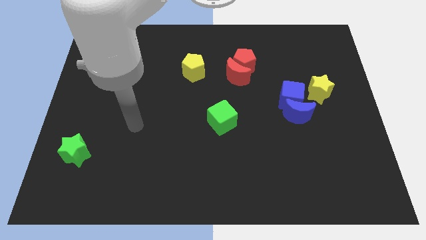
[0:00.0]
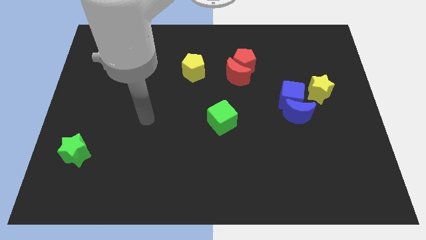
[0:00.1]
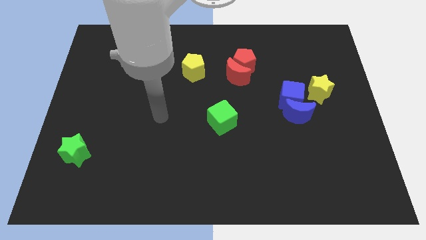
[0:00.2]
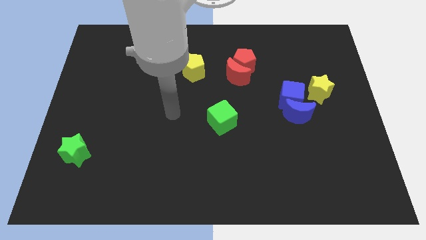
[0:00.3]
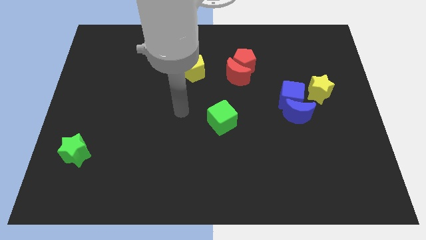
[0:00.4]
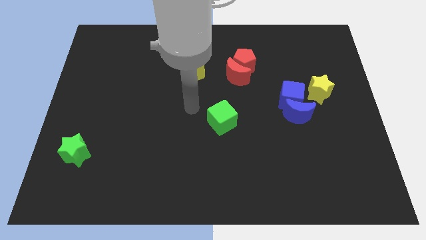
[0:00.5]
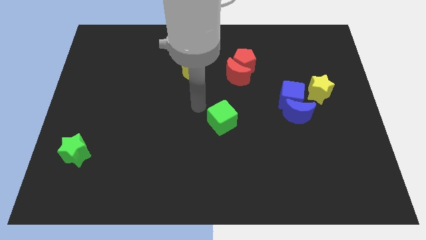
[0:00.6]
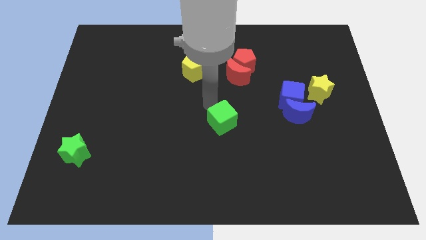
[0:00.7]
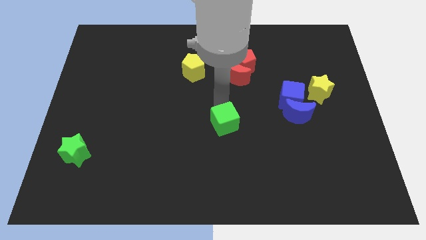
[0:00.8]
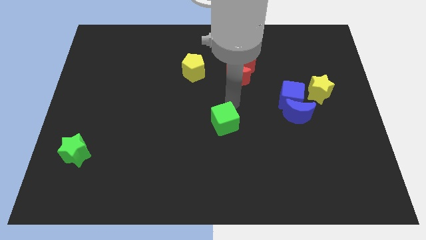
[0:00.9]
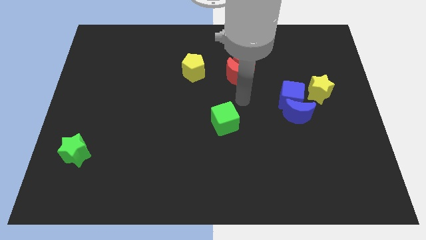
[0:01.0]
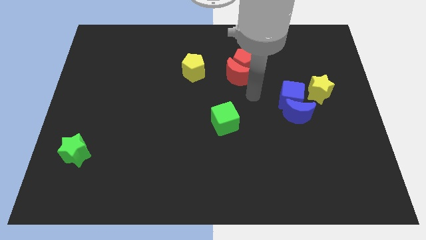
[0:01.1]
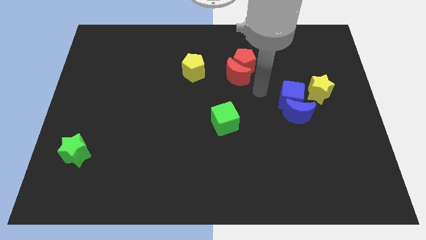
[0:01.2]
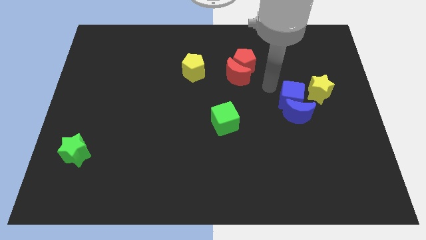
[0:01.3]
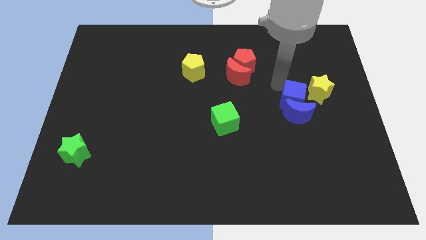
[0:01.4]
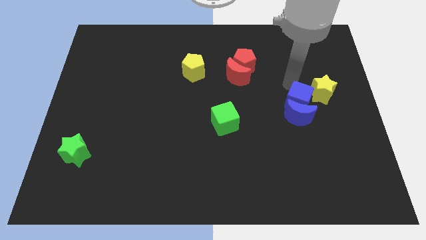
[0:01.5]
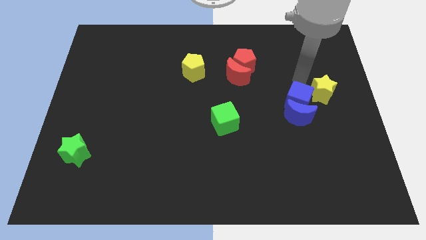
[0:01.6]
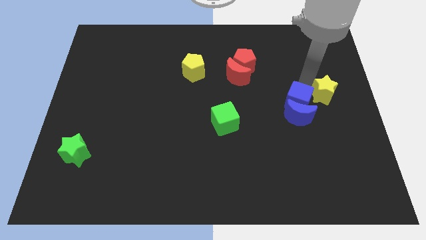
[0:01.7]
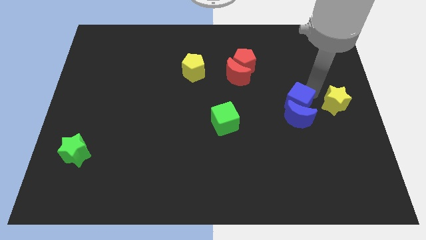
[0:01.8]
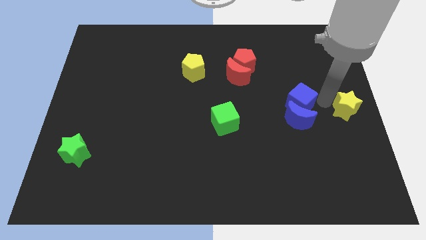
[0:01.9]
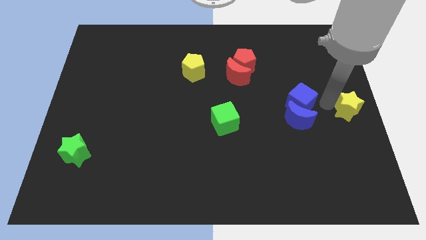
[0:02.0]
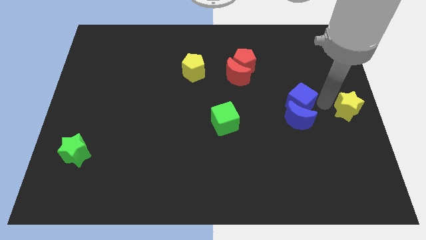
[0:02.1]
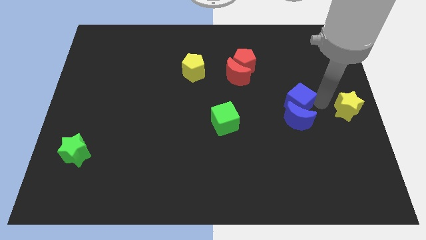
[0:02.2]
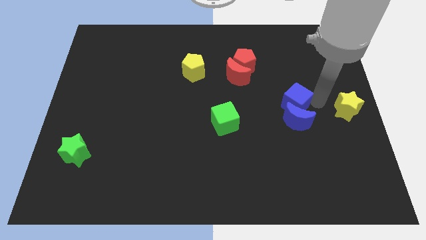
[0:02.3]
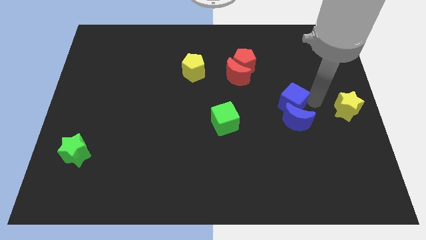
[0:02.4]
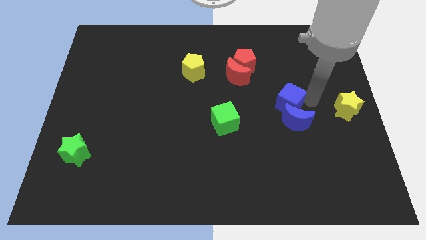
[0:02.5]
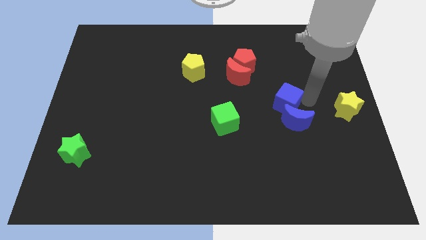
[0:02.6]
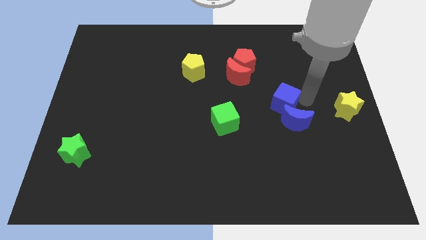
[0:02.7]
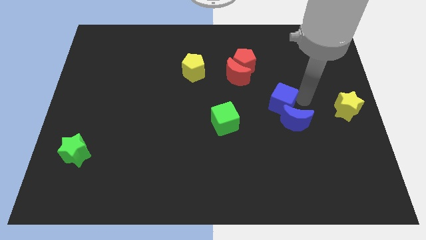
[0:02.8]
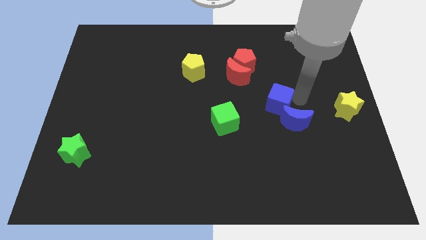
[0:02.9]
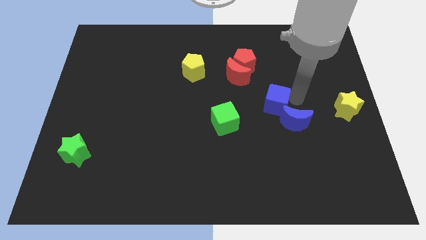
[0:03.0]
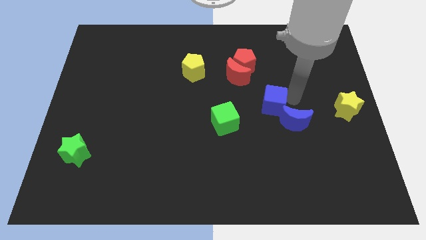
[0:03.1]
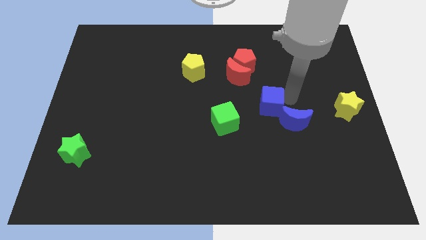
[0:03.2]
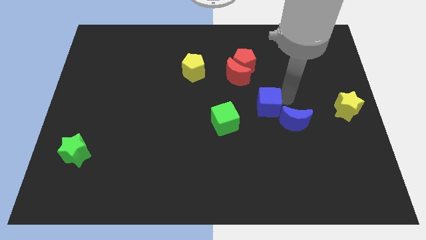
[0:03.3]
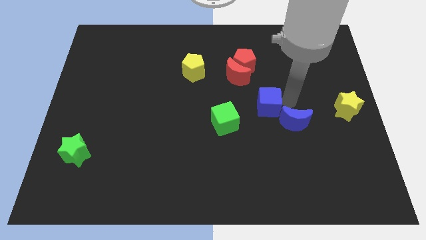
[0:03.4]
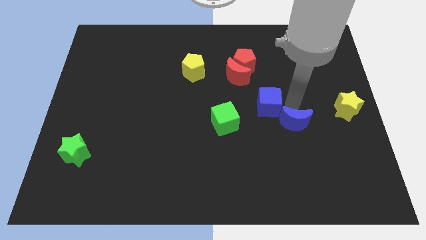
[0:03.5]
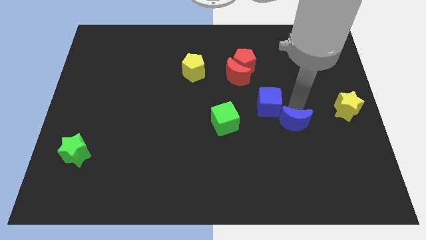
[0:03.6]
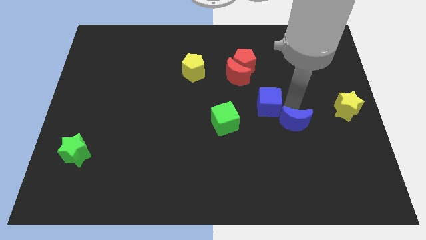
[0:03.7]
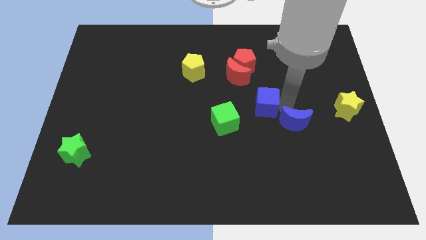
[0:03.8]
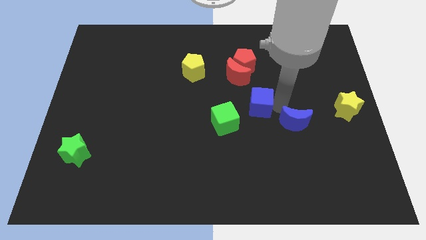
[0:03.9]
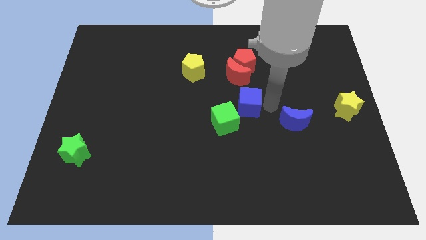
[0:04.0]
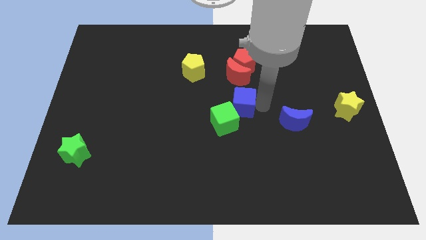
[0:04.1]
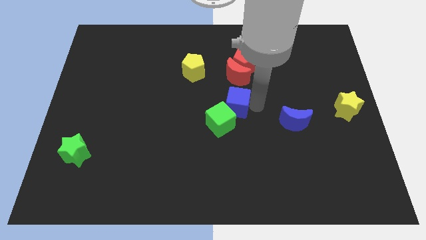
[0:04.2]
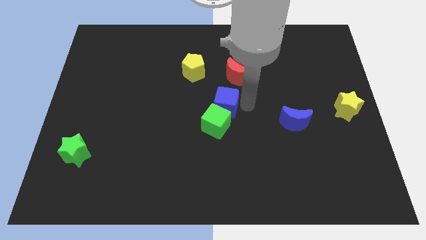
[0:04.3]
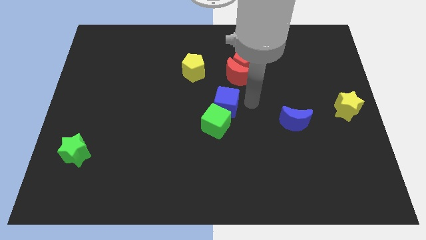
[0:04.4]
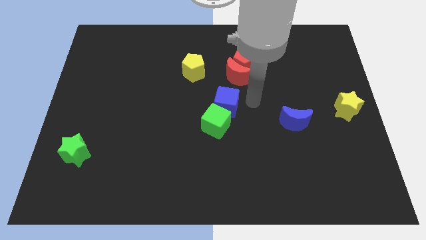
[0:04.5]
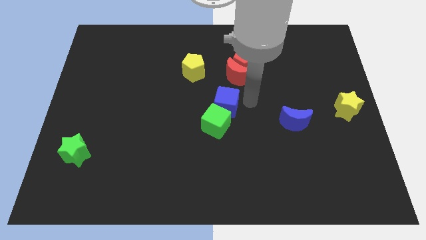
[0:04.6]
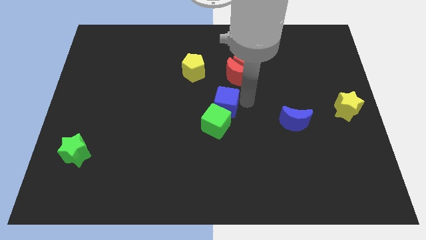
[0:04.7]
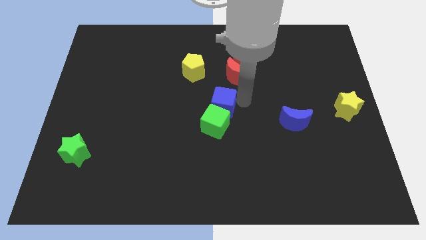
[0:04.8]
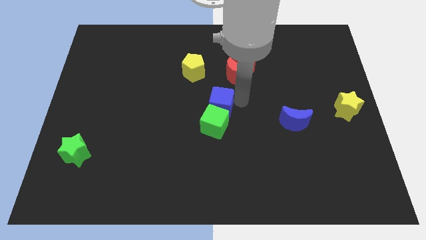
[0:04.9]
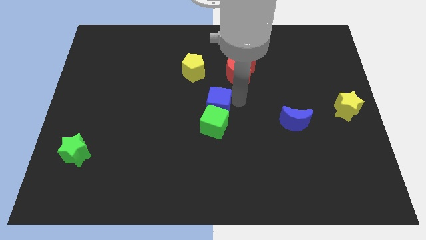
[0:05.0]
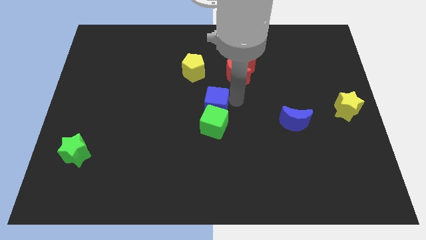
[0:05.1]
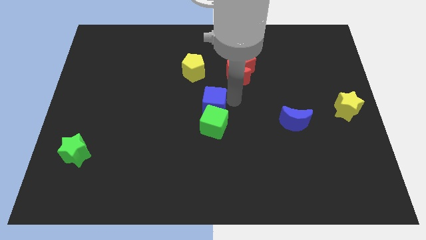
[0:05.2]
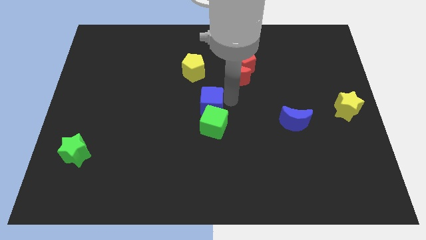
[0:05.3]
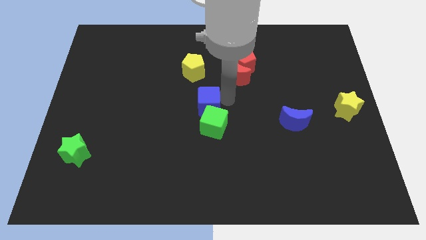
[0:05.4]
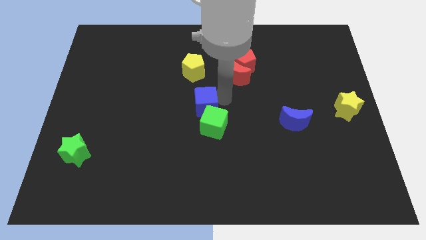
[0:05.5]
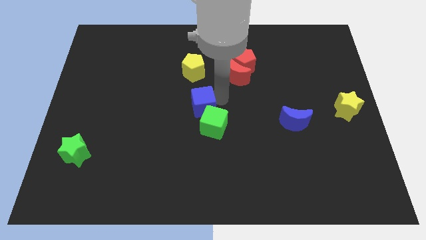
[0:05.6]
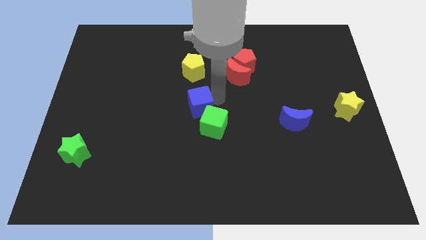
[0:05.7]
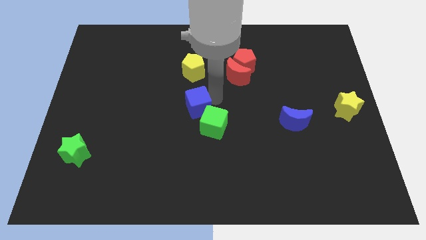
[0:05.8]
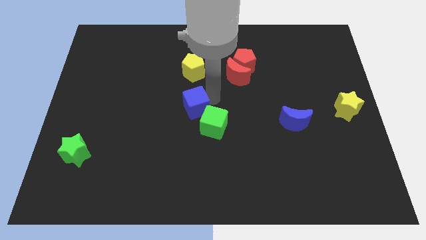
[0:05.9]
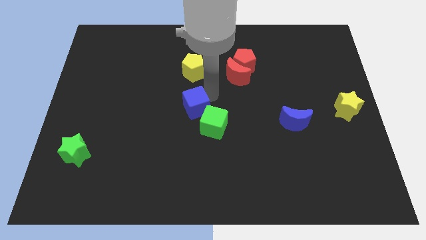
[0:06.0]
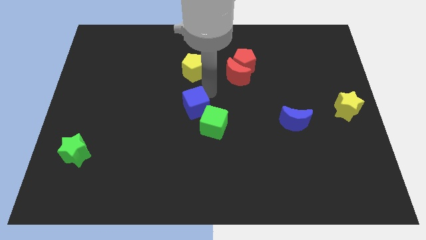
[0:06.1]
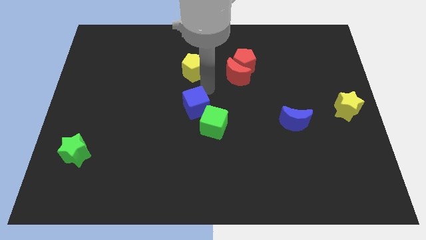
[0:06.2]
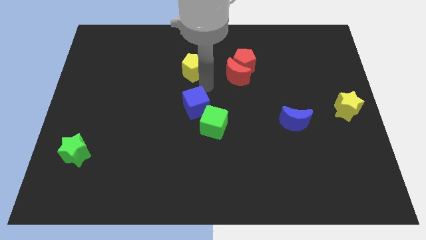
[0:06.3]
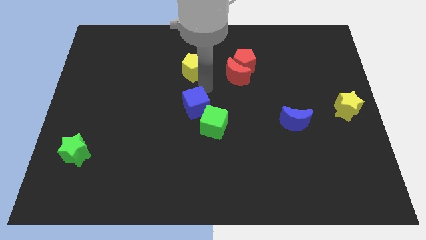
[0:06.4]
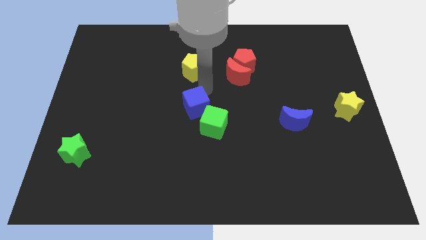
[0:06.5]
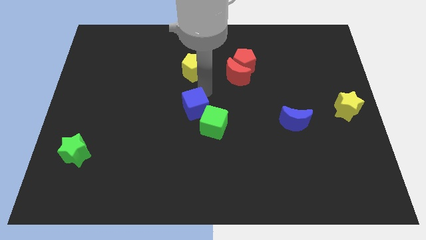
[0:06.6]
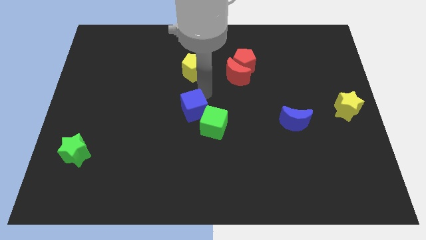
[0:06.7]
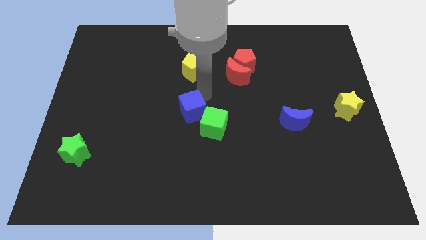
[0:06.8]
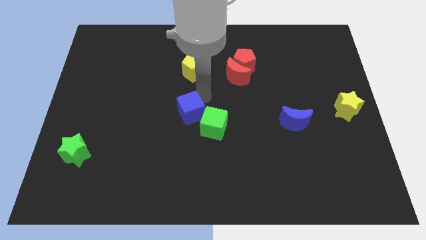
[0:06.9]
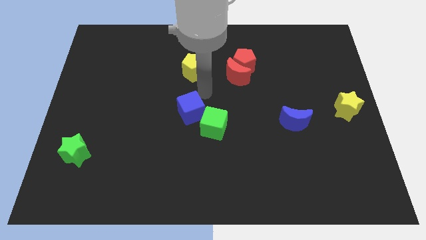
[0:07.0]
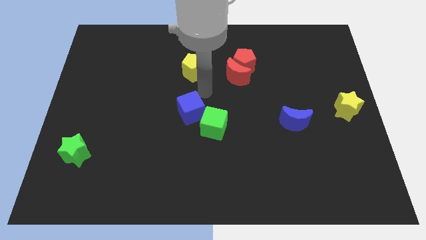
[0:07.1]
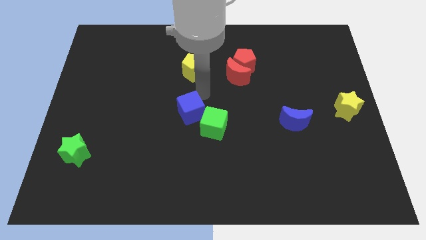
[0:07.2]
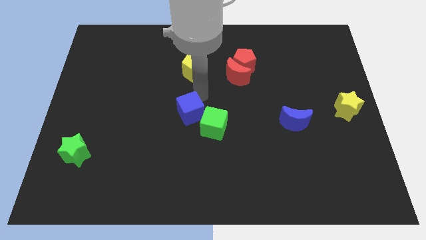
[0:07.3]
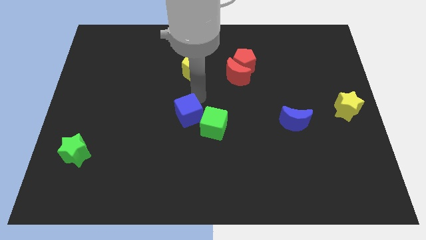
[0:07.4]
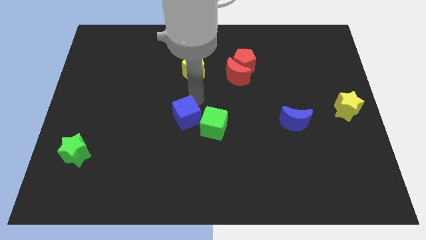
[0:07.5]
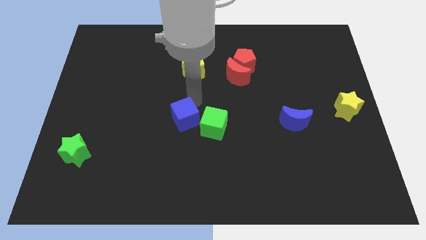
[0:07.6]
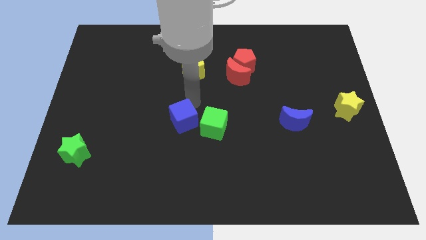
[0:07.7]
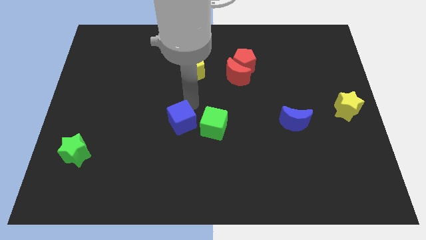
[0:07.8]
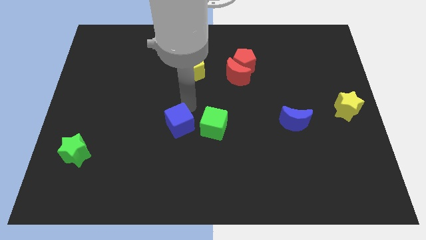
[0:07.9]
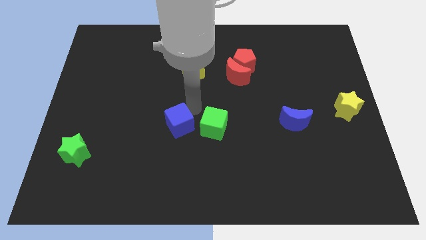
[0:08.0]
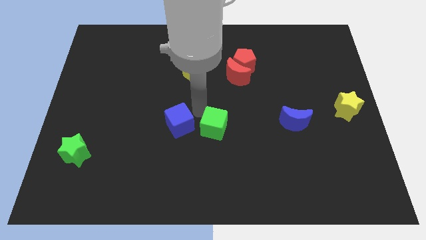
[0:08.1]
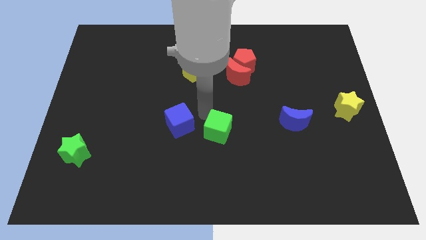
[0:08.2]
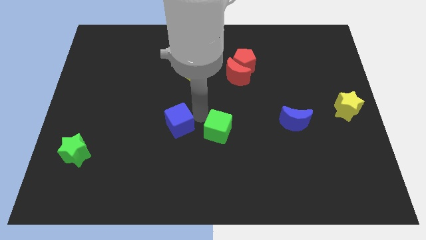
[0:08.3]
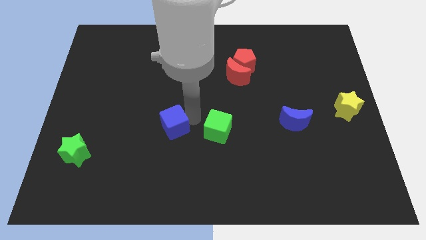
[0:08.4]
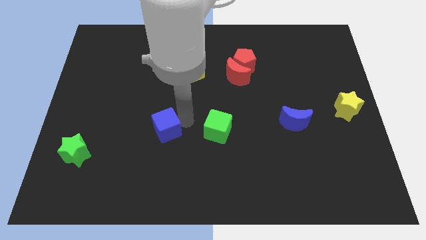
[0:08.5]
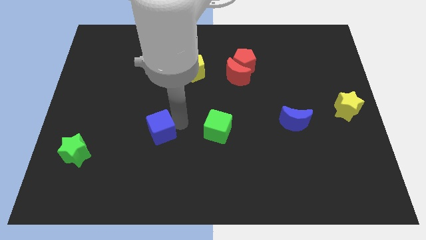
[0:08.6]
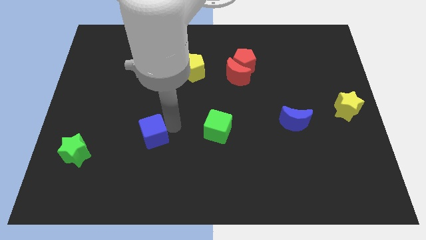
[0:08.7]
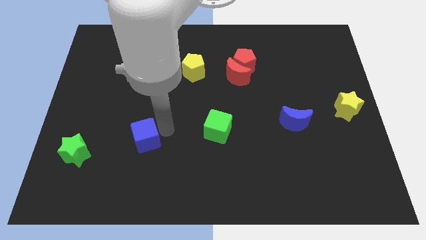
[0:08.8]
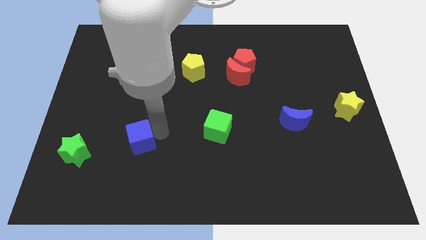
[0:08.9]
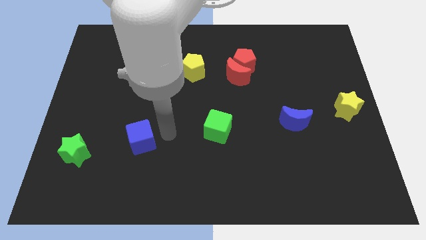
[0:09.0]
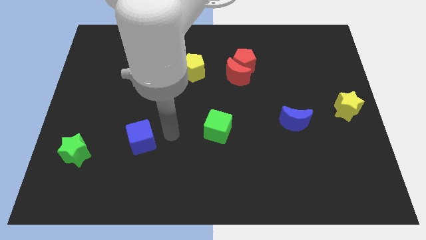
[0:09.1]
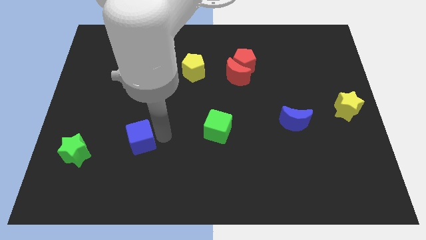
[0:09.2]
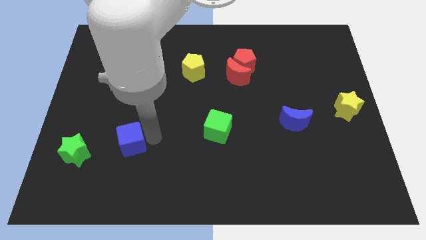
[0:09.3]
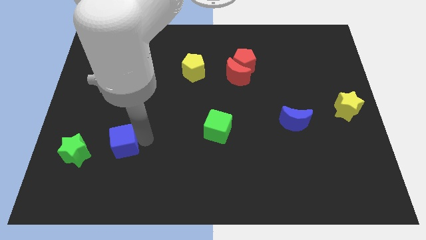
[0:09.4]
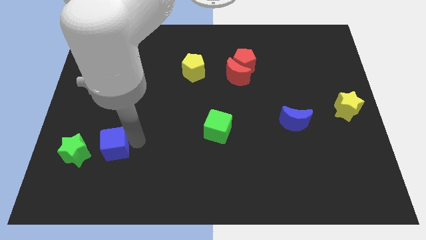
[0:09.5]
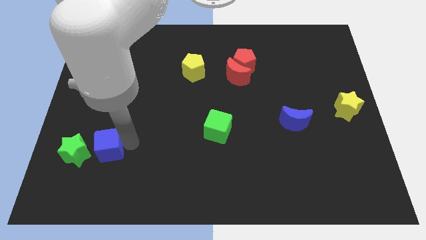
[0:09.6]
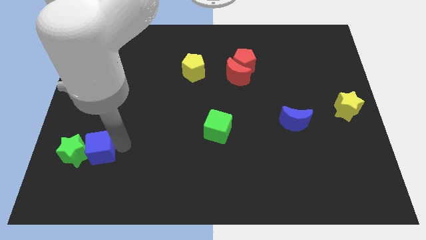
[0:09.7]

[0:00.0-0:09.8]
put the blue cube close to the green star
